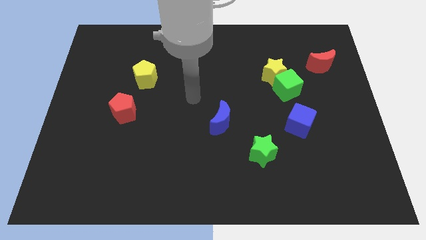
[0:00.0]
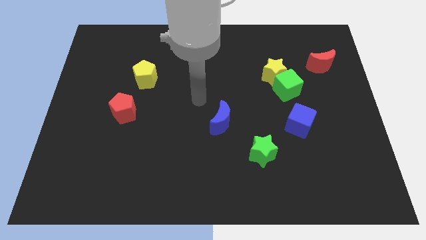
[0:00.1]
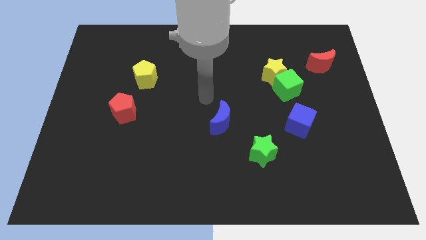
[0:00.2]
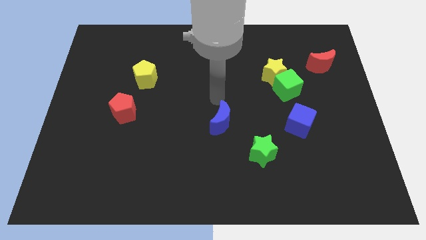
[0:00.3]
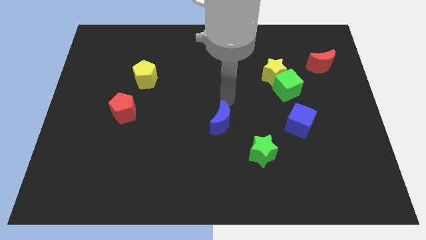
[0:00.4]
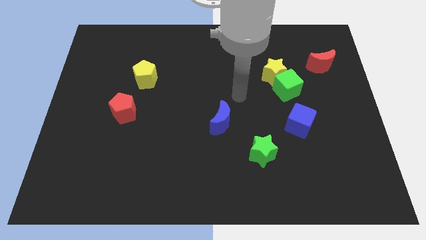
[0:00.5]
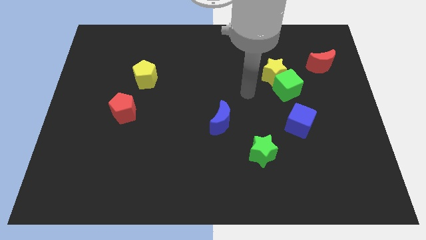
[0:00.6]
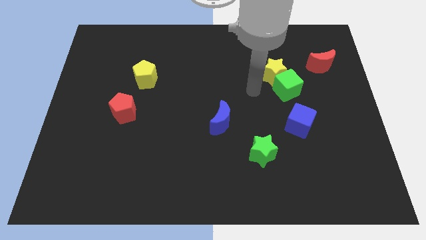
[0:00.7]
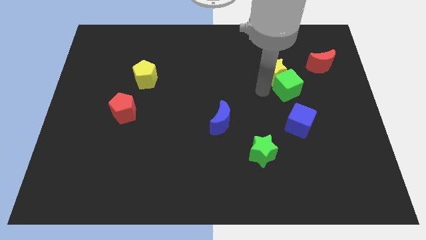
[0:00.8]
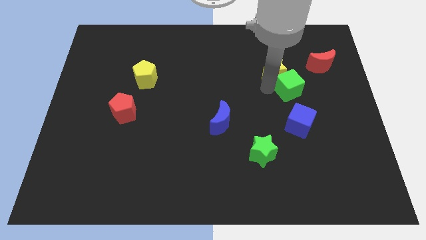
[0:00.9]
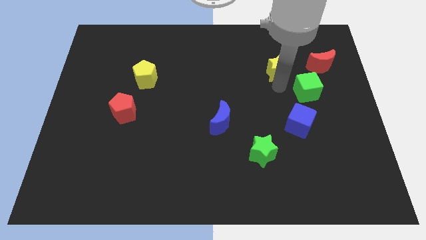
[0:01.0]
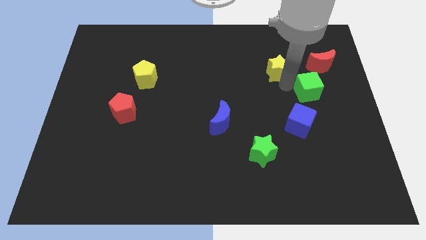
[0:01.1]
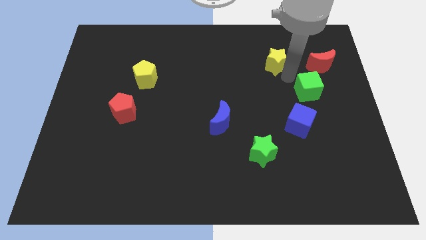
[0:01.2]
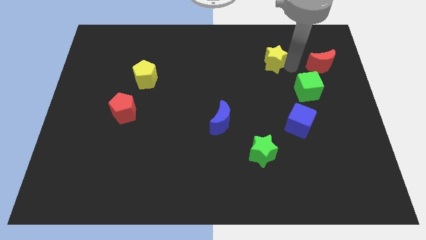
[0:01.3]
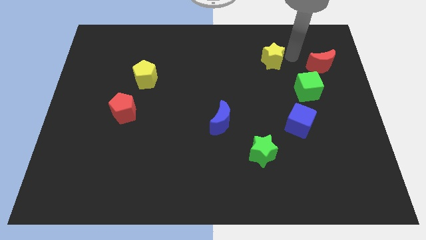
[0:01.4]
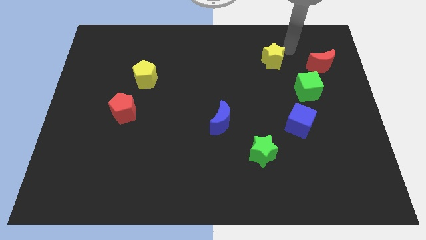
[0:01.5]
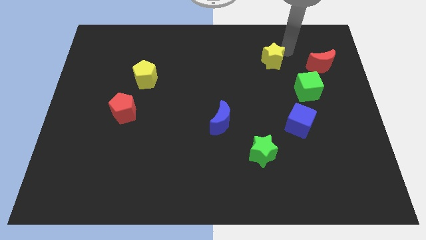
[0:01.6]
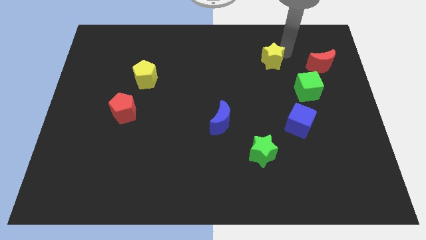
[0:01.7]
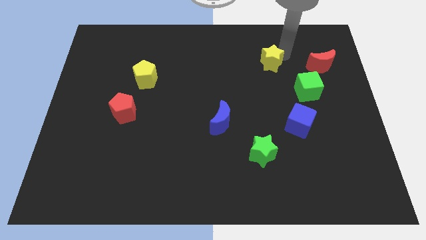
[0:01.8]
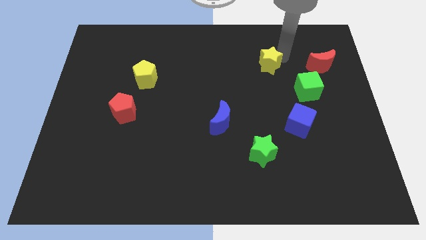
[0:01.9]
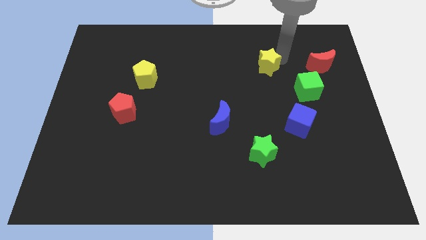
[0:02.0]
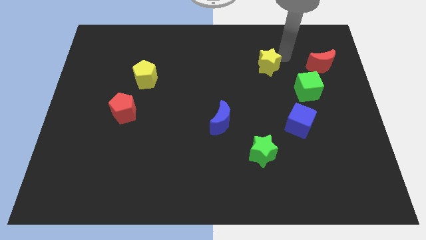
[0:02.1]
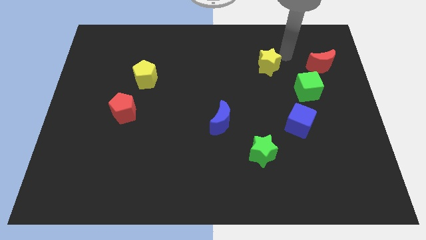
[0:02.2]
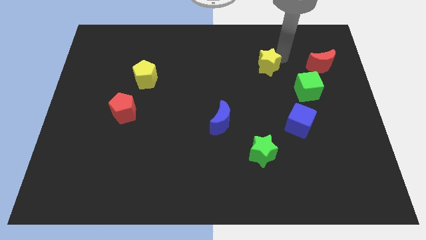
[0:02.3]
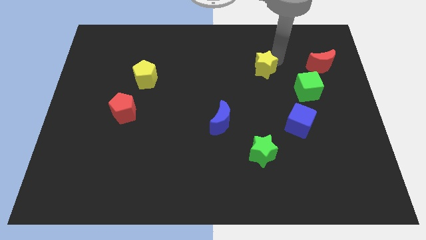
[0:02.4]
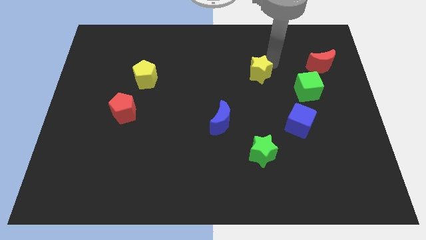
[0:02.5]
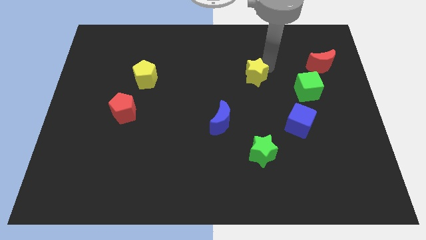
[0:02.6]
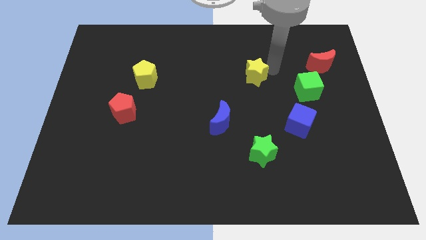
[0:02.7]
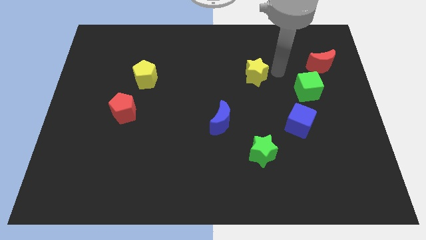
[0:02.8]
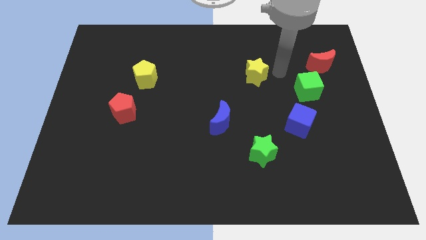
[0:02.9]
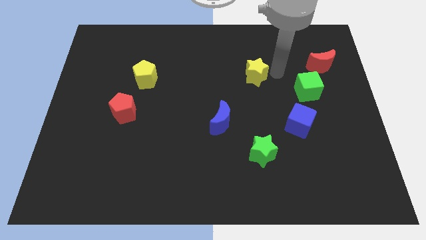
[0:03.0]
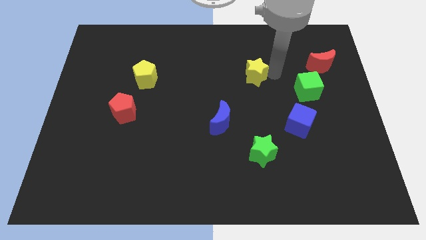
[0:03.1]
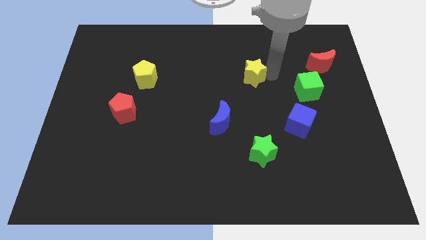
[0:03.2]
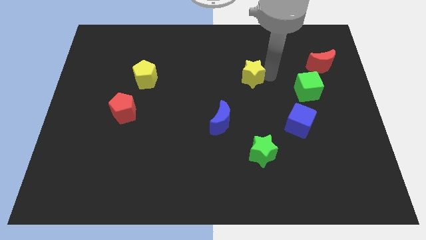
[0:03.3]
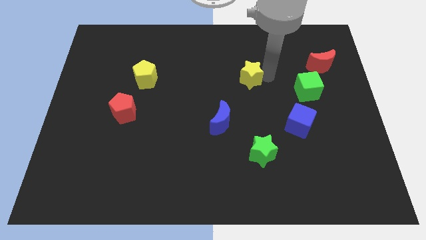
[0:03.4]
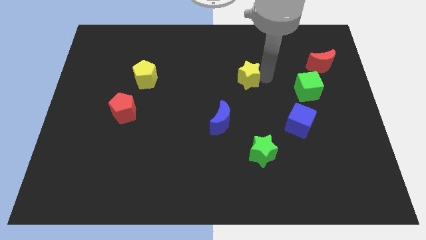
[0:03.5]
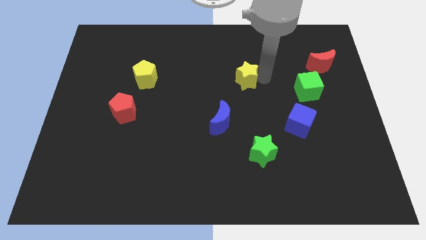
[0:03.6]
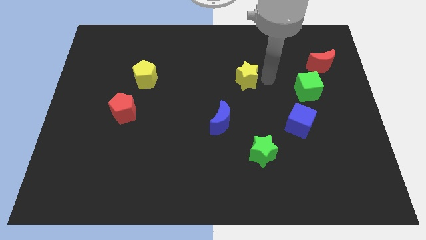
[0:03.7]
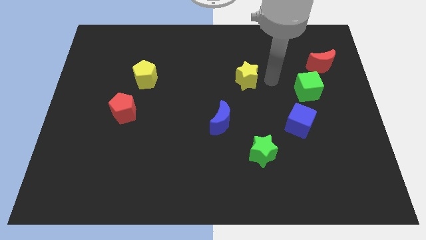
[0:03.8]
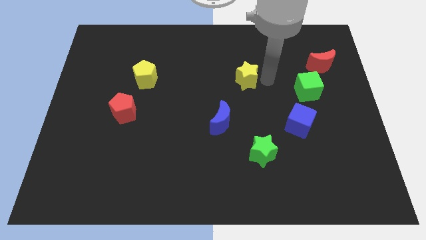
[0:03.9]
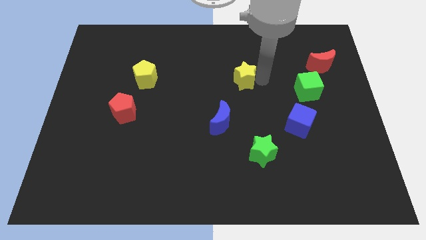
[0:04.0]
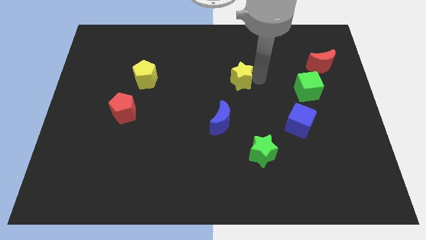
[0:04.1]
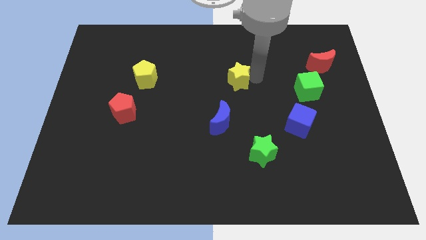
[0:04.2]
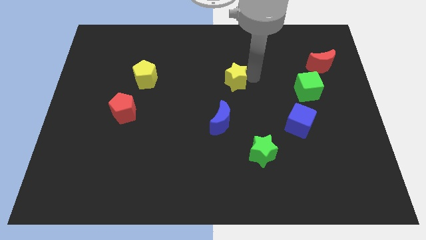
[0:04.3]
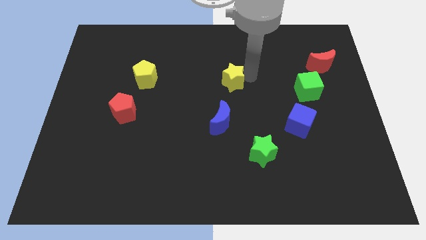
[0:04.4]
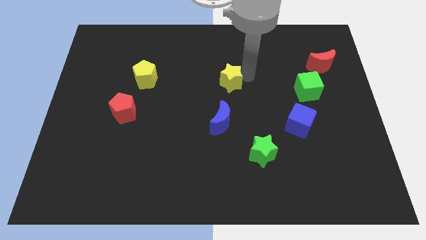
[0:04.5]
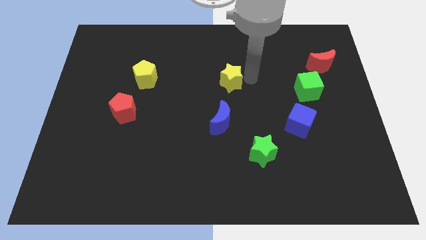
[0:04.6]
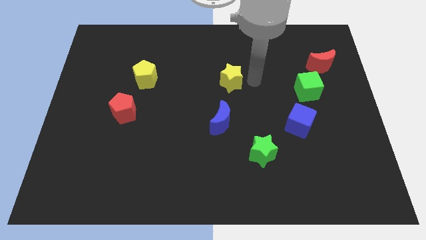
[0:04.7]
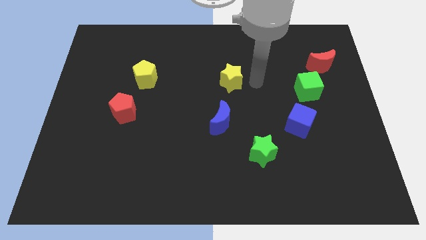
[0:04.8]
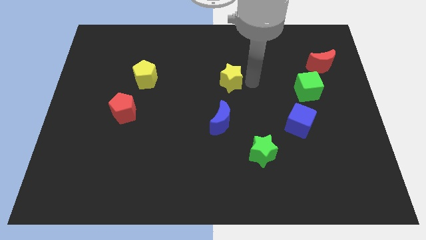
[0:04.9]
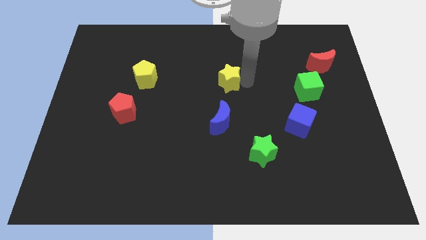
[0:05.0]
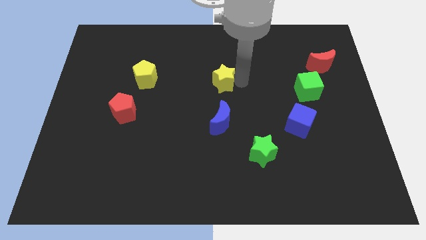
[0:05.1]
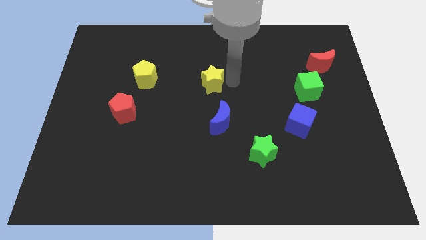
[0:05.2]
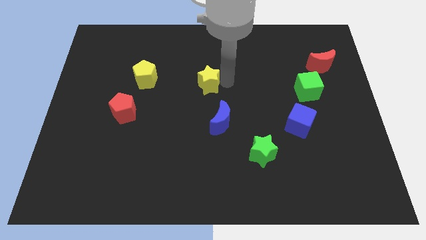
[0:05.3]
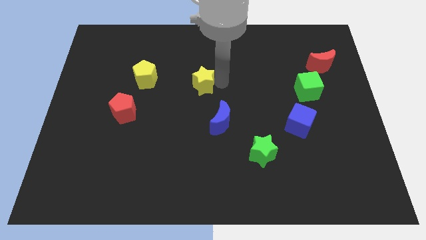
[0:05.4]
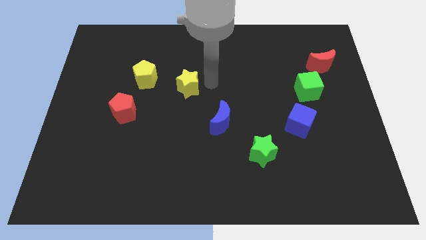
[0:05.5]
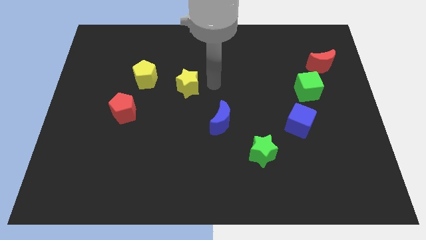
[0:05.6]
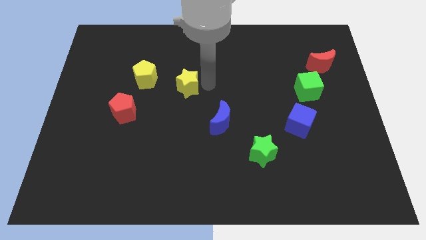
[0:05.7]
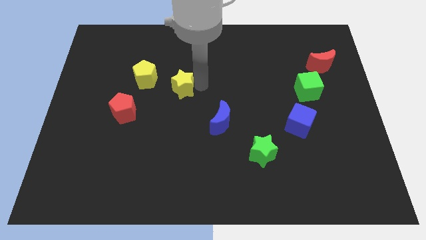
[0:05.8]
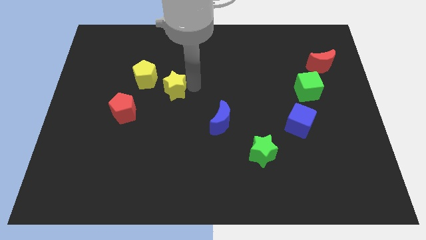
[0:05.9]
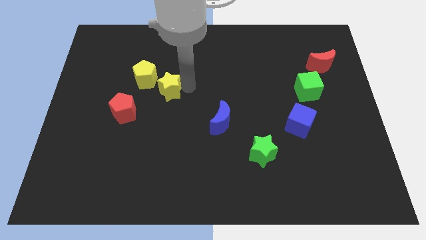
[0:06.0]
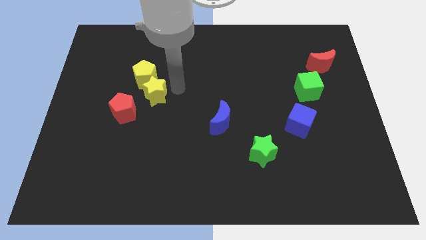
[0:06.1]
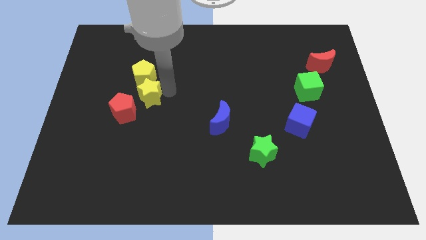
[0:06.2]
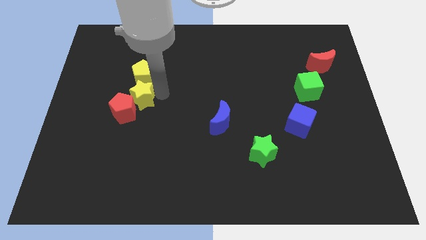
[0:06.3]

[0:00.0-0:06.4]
slide the yellow star to the bottom left side of the yellow pentagon

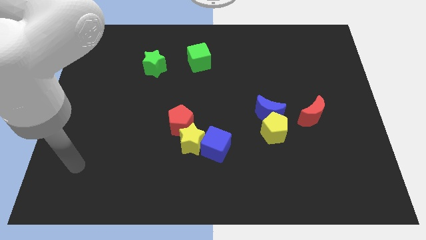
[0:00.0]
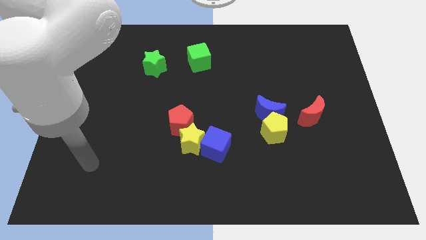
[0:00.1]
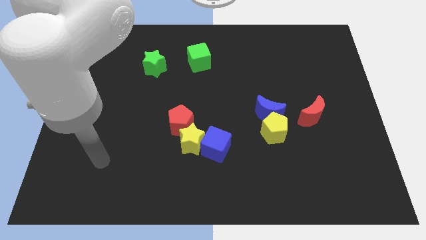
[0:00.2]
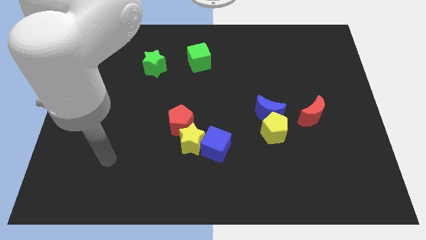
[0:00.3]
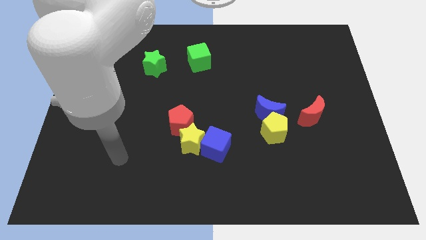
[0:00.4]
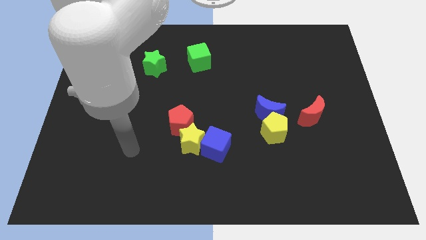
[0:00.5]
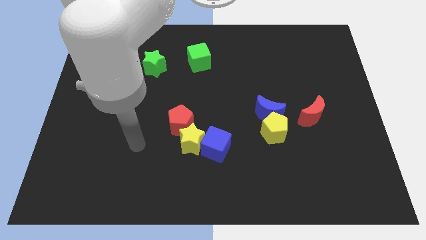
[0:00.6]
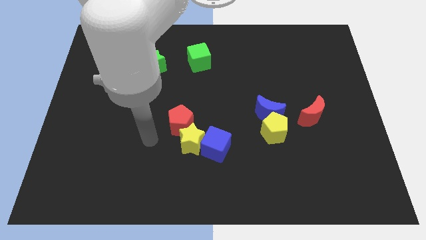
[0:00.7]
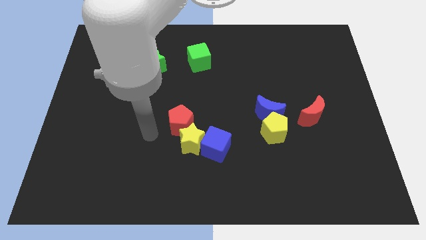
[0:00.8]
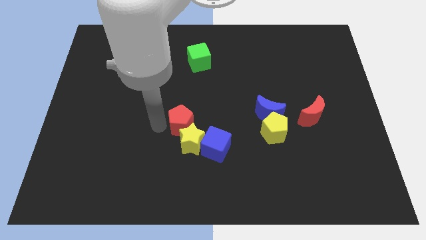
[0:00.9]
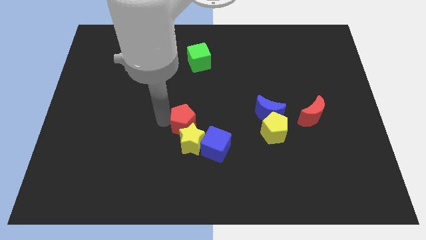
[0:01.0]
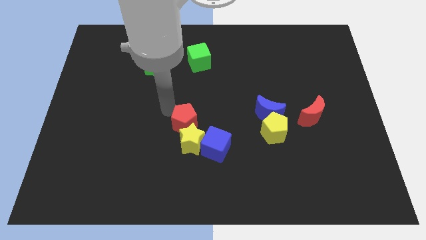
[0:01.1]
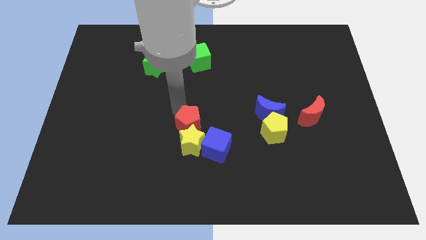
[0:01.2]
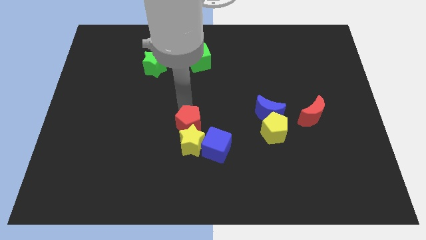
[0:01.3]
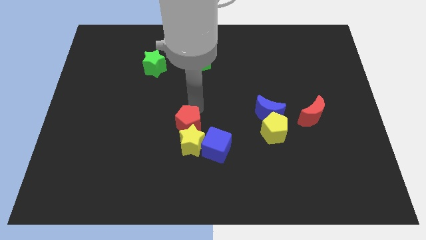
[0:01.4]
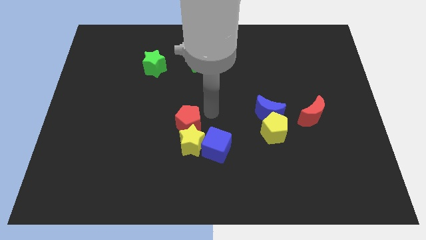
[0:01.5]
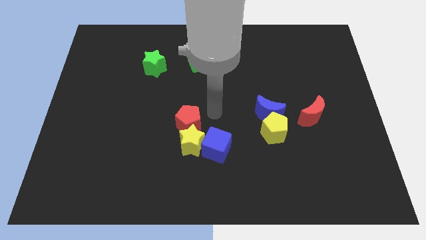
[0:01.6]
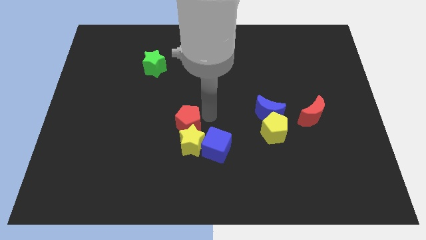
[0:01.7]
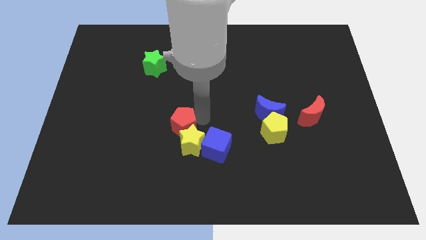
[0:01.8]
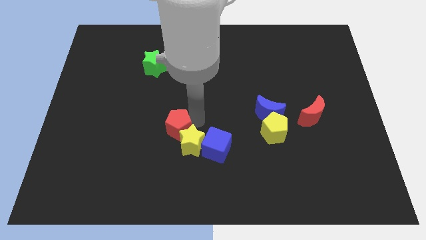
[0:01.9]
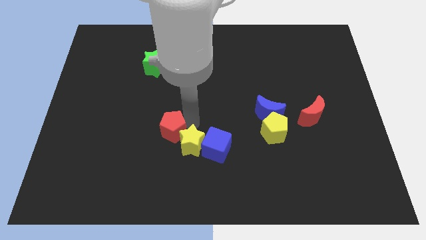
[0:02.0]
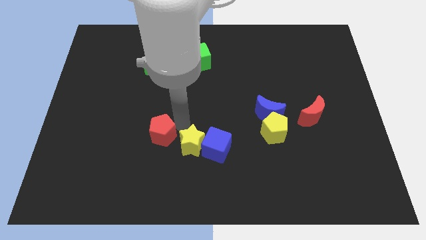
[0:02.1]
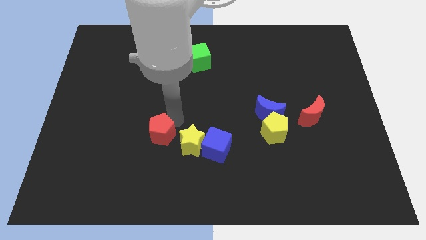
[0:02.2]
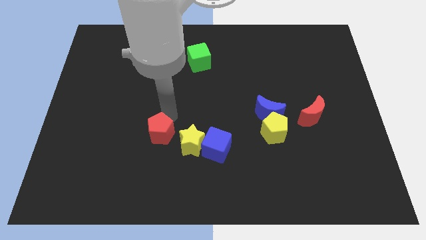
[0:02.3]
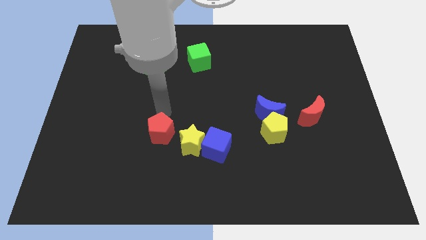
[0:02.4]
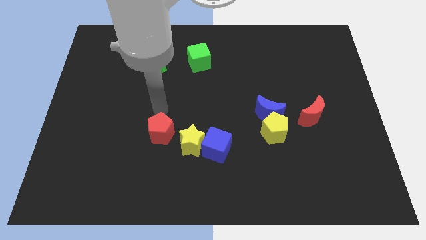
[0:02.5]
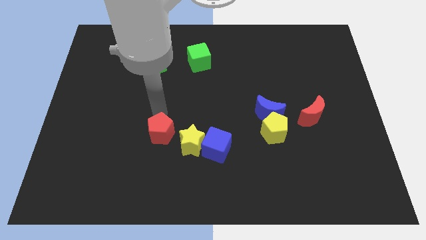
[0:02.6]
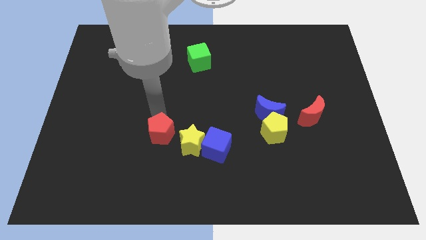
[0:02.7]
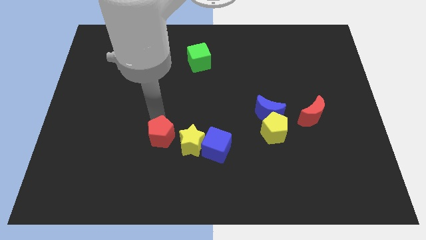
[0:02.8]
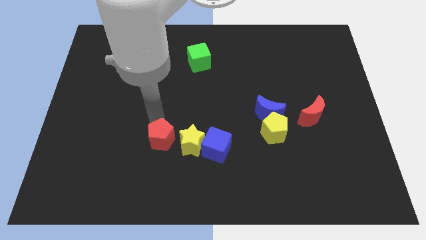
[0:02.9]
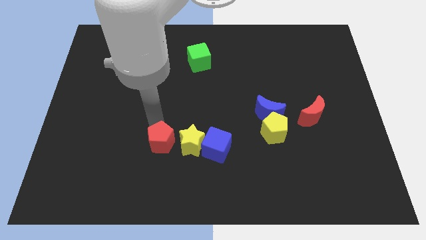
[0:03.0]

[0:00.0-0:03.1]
move the red pentagon to the bottom left side of the yellow star
